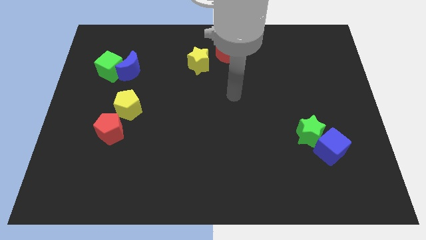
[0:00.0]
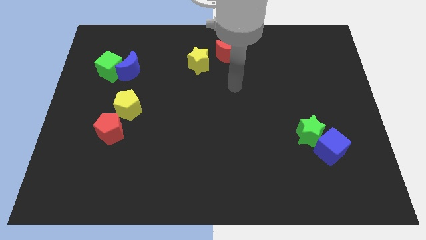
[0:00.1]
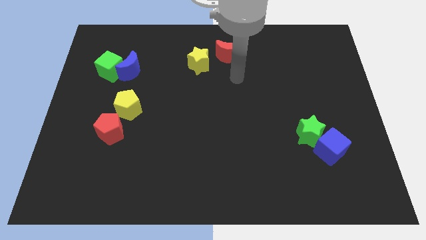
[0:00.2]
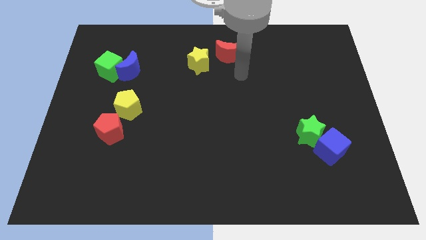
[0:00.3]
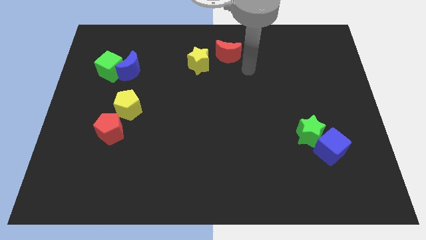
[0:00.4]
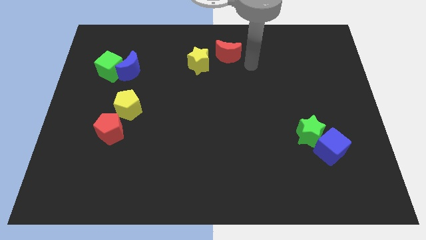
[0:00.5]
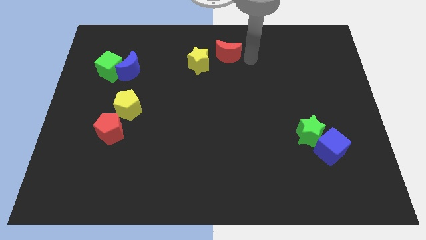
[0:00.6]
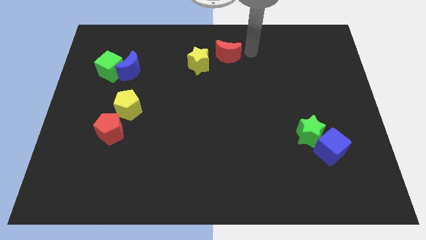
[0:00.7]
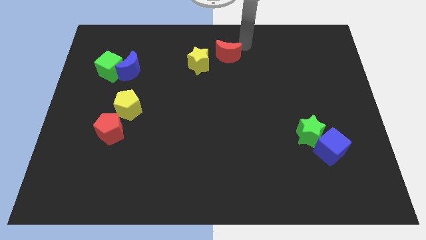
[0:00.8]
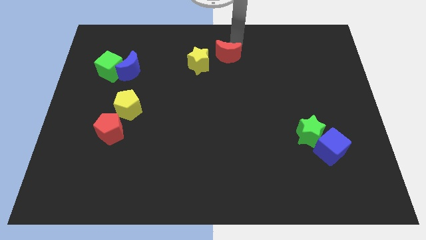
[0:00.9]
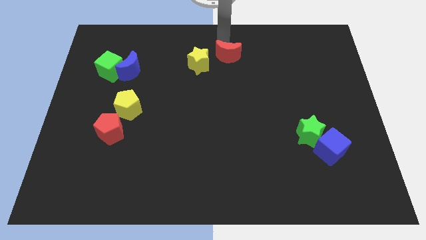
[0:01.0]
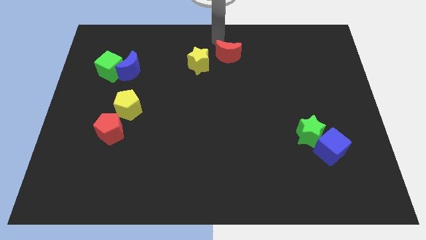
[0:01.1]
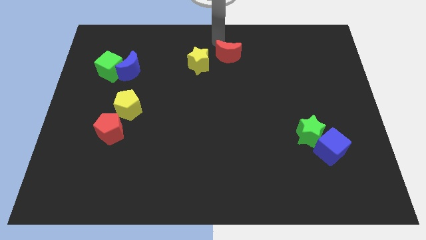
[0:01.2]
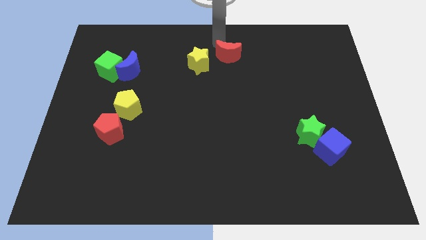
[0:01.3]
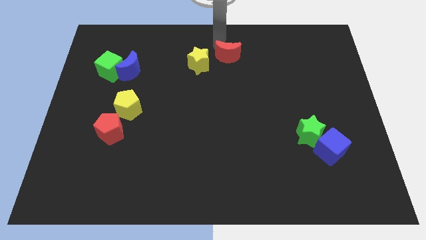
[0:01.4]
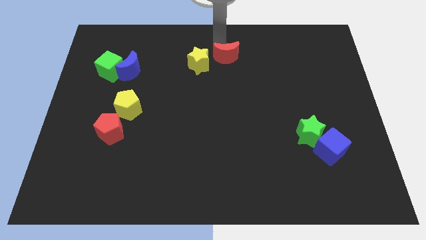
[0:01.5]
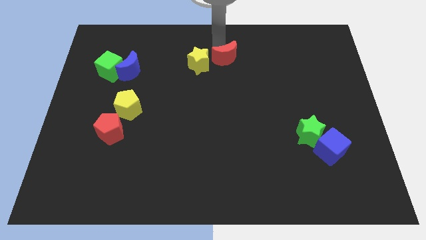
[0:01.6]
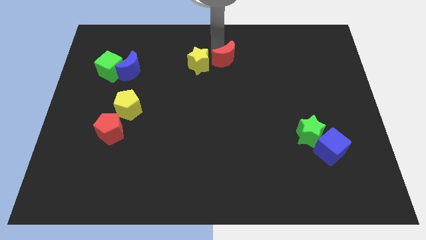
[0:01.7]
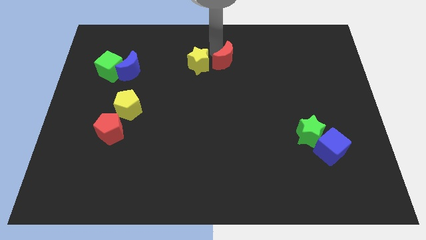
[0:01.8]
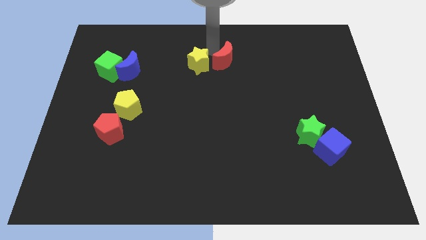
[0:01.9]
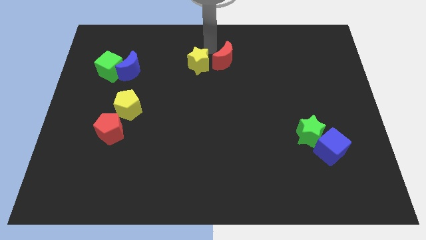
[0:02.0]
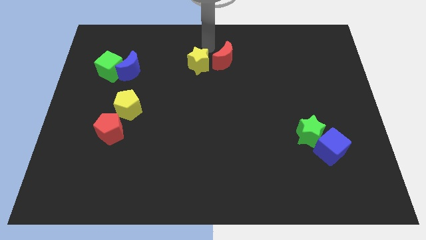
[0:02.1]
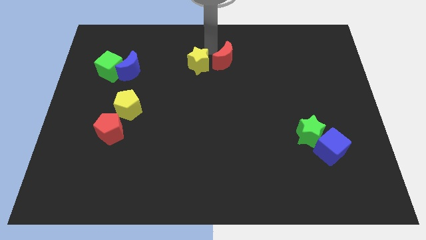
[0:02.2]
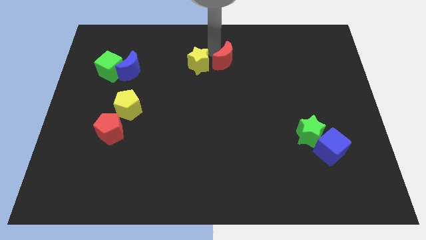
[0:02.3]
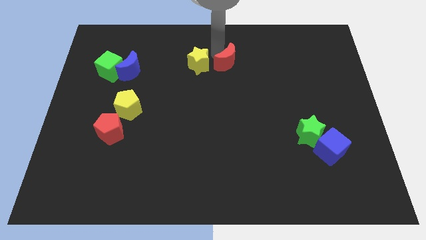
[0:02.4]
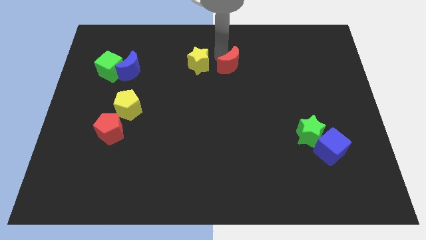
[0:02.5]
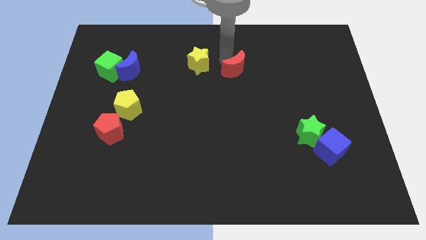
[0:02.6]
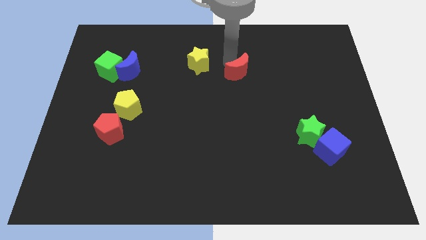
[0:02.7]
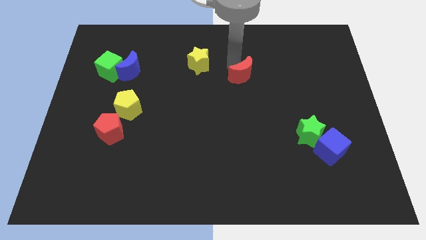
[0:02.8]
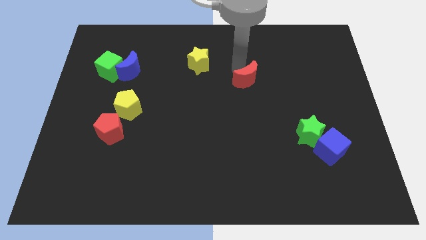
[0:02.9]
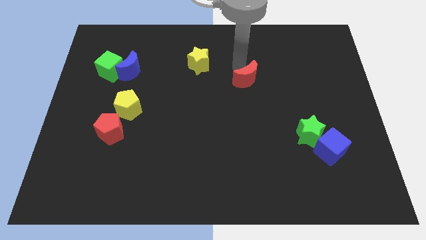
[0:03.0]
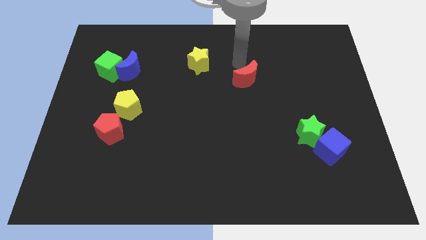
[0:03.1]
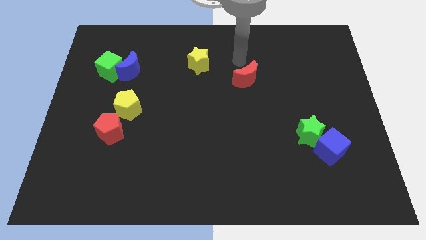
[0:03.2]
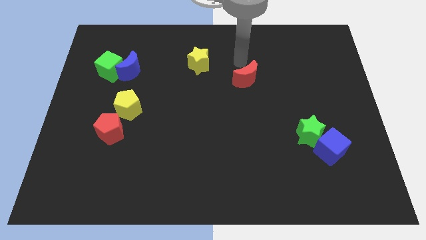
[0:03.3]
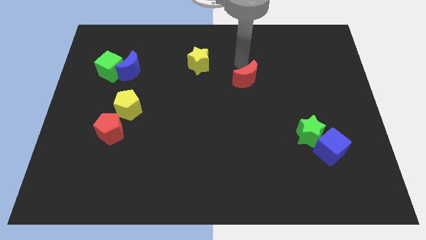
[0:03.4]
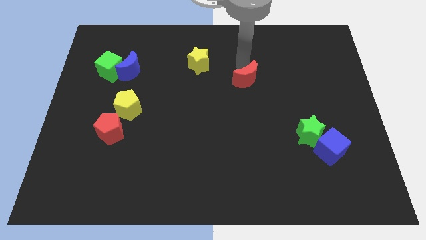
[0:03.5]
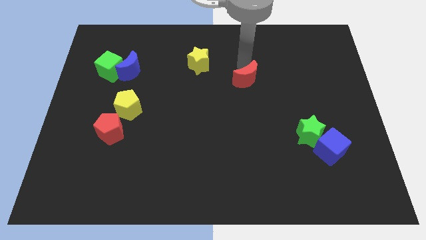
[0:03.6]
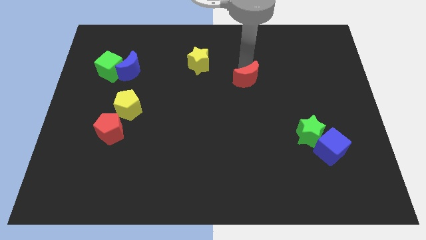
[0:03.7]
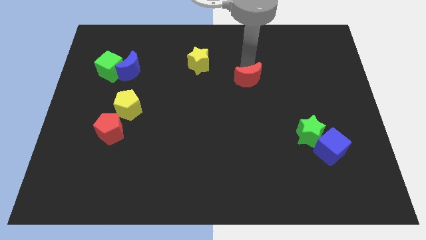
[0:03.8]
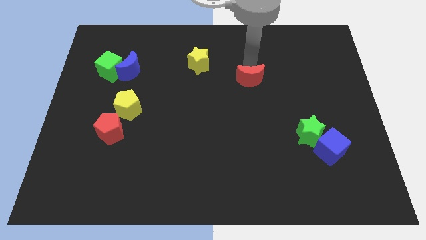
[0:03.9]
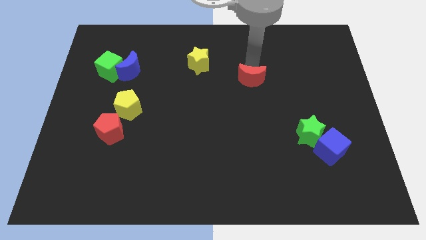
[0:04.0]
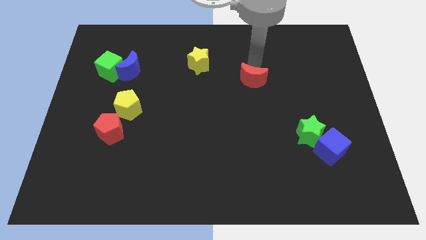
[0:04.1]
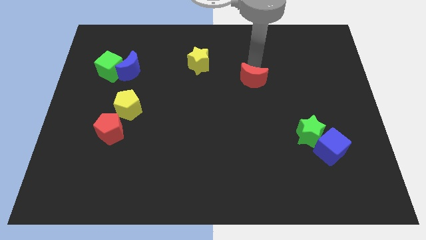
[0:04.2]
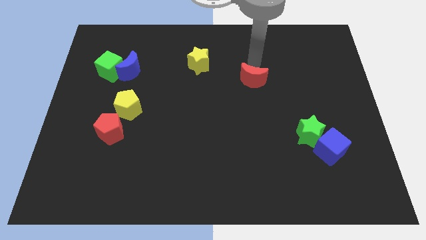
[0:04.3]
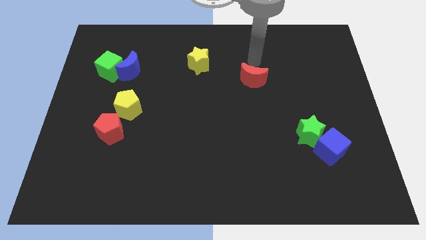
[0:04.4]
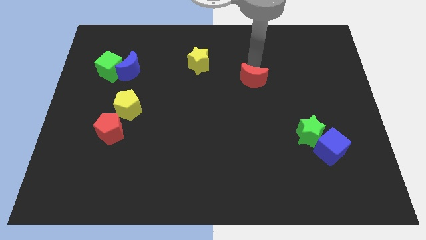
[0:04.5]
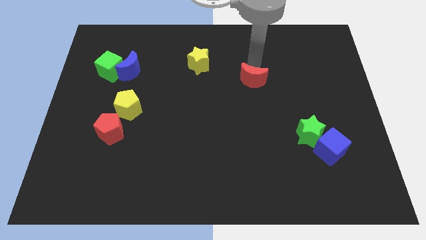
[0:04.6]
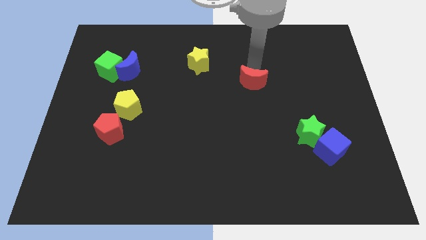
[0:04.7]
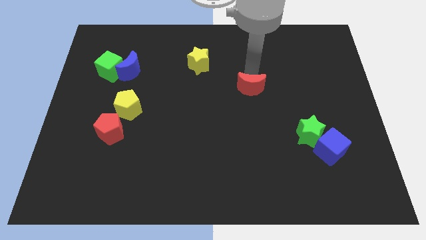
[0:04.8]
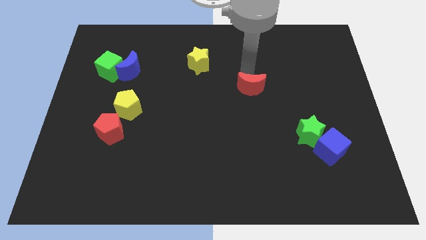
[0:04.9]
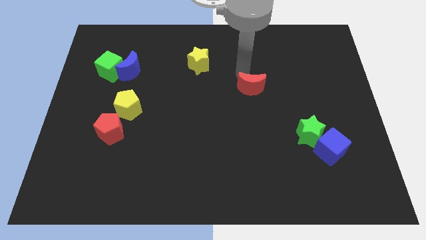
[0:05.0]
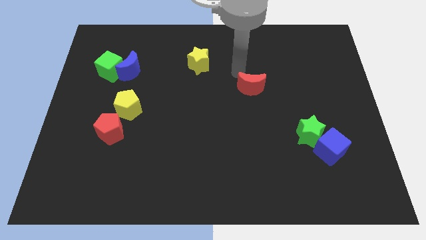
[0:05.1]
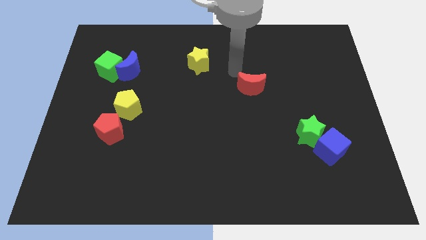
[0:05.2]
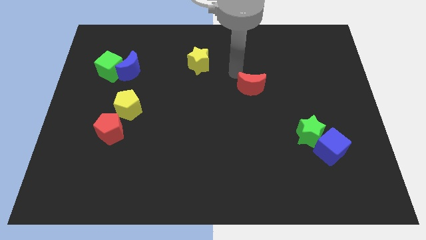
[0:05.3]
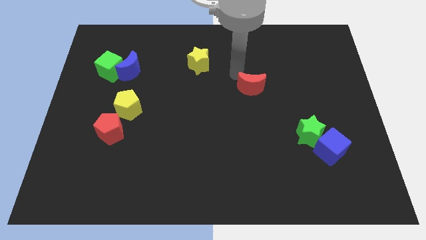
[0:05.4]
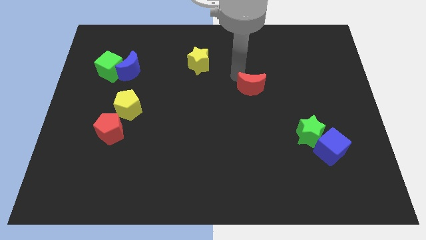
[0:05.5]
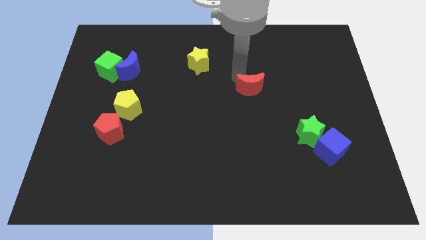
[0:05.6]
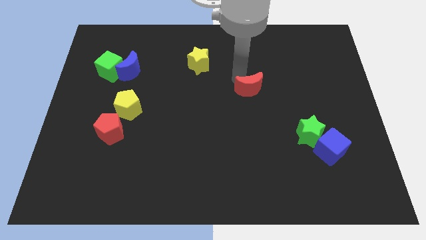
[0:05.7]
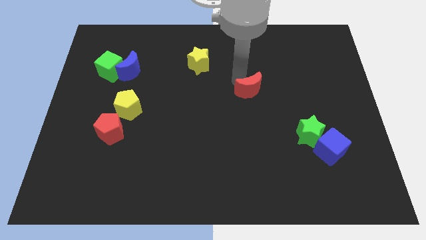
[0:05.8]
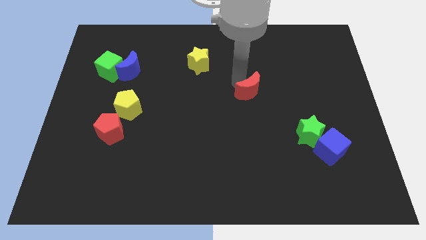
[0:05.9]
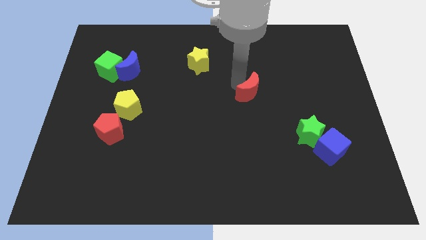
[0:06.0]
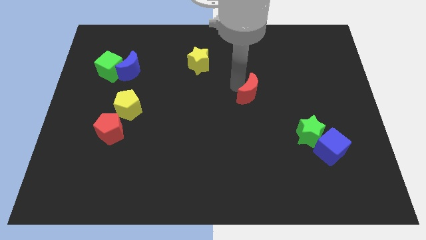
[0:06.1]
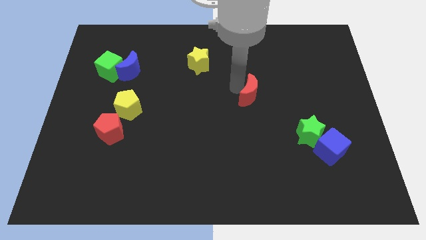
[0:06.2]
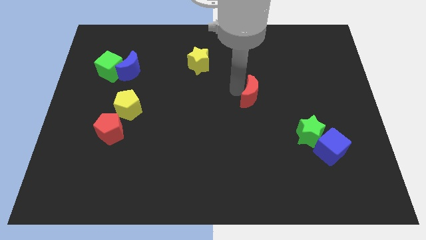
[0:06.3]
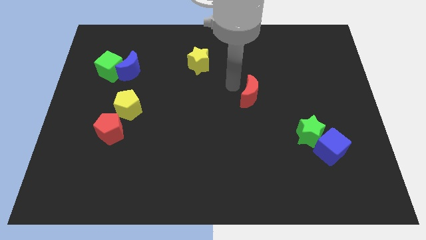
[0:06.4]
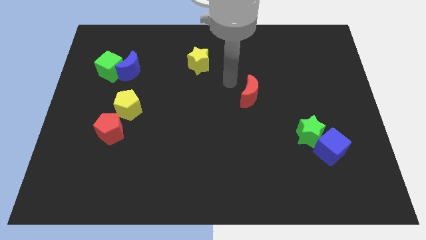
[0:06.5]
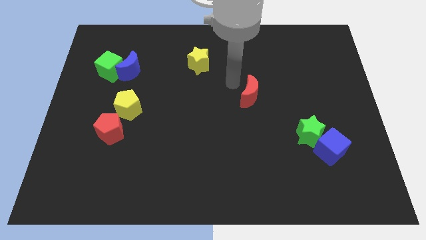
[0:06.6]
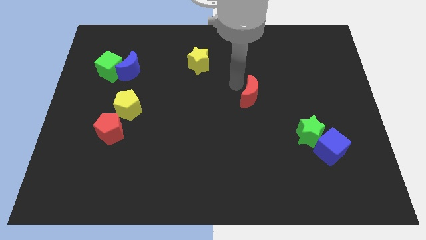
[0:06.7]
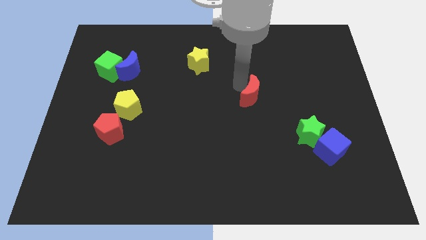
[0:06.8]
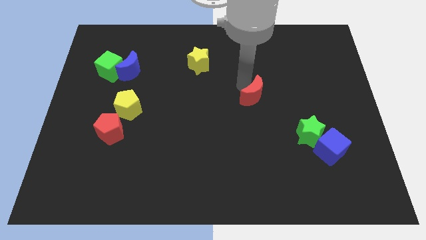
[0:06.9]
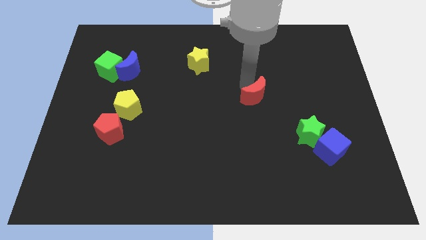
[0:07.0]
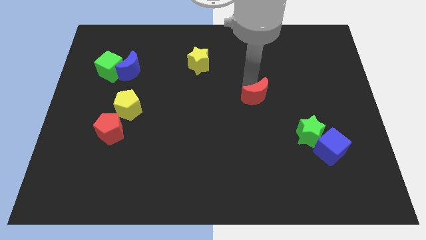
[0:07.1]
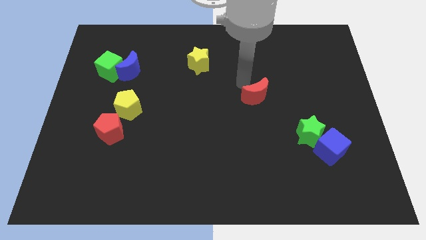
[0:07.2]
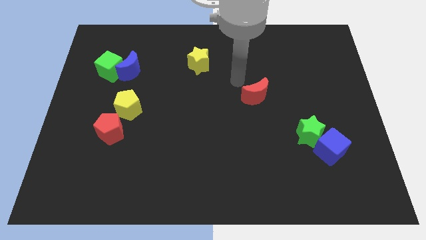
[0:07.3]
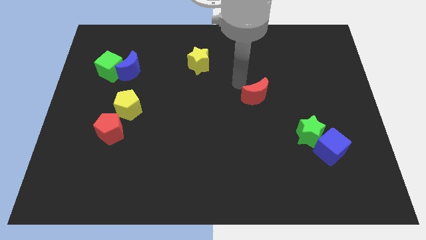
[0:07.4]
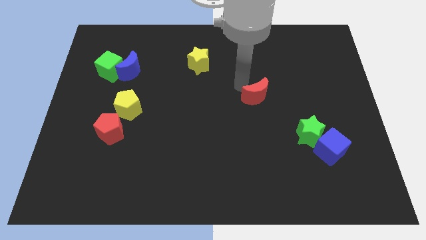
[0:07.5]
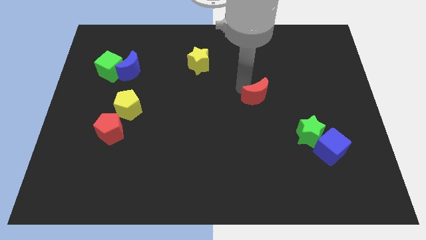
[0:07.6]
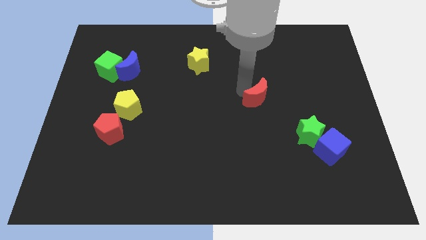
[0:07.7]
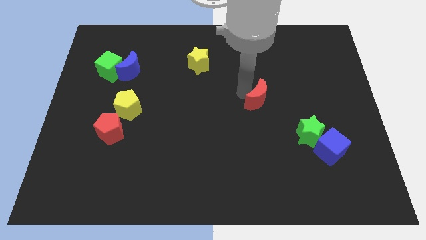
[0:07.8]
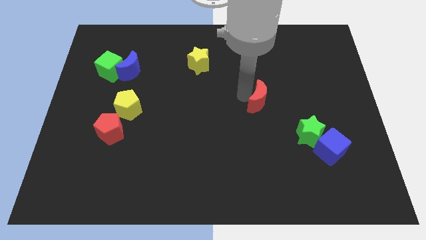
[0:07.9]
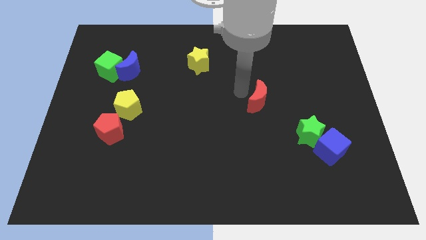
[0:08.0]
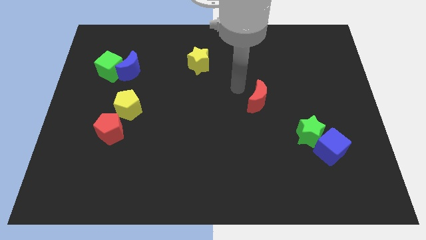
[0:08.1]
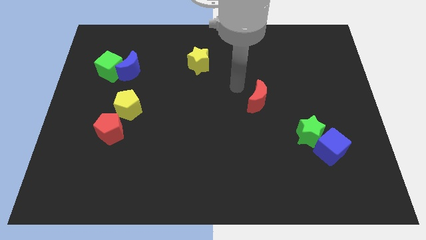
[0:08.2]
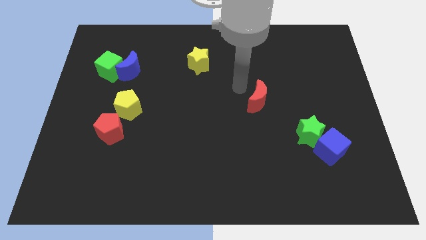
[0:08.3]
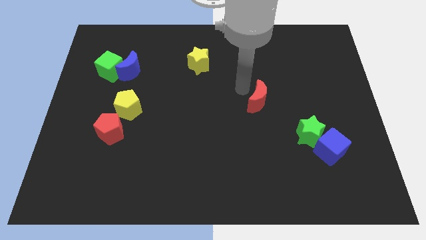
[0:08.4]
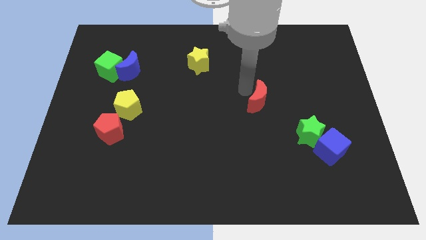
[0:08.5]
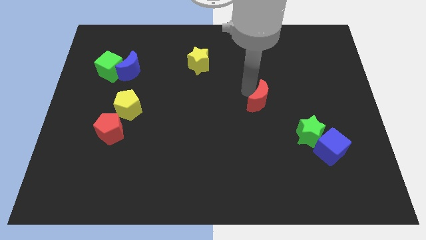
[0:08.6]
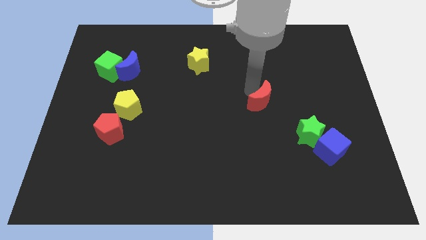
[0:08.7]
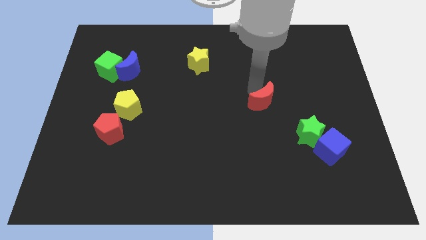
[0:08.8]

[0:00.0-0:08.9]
slide the red moon diagonally up and to the left of the green star
